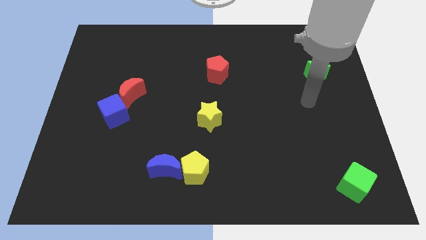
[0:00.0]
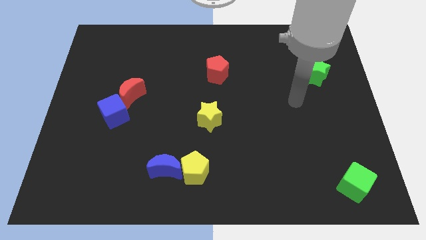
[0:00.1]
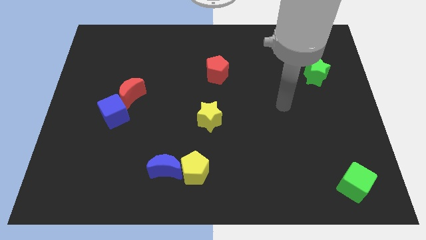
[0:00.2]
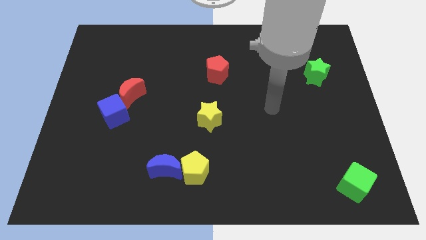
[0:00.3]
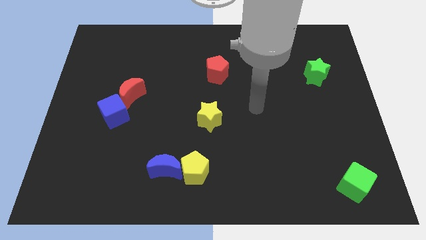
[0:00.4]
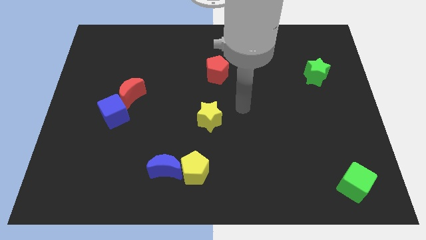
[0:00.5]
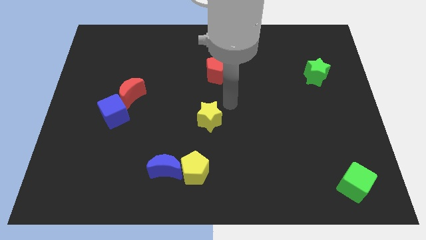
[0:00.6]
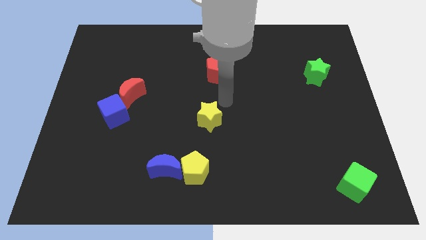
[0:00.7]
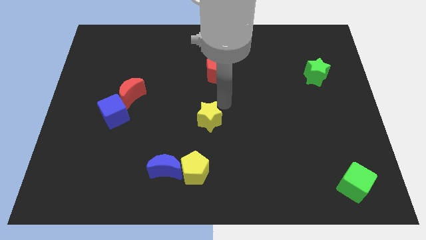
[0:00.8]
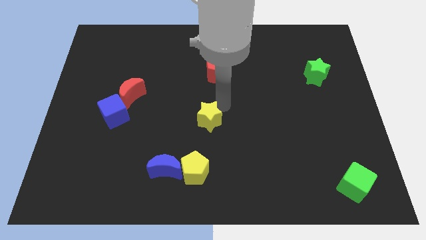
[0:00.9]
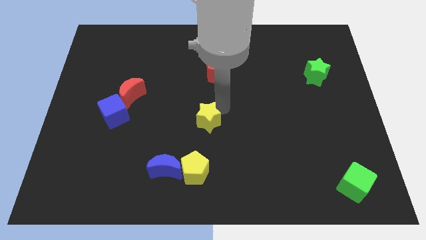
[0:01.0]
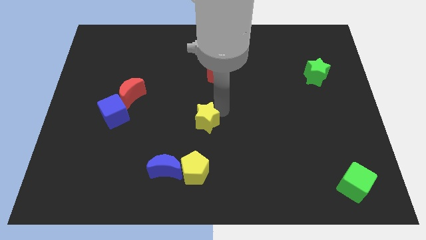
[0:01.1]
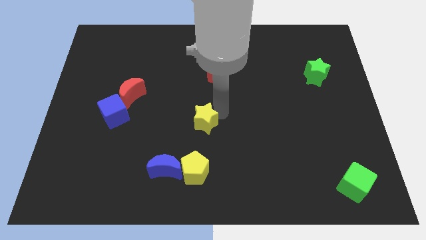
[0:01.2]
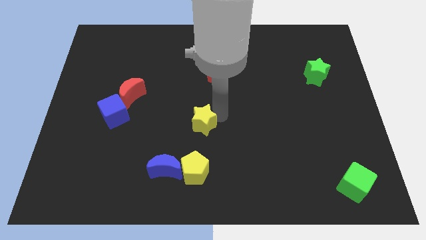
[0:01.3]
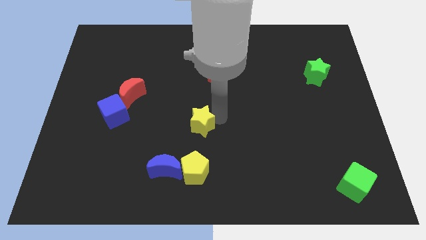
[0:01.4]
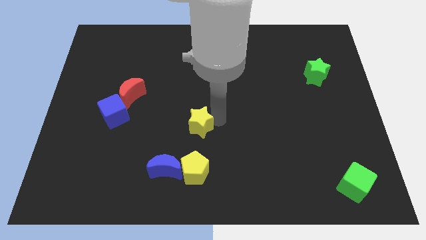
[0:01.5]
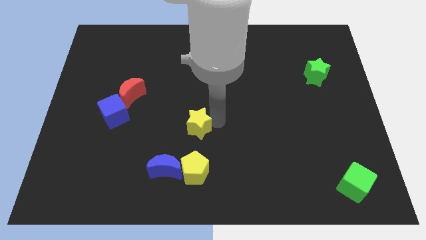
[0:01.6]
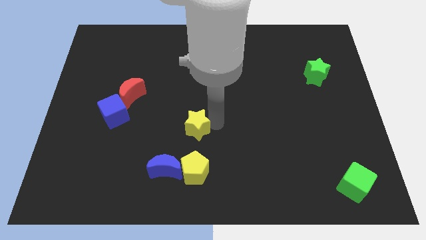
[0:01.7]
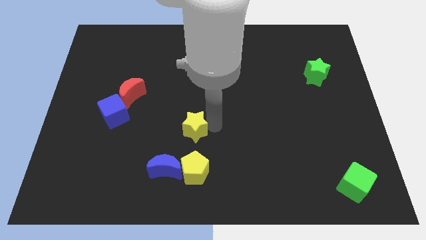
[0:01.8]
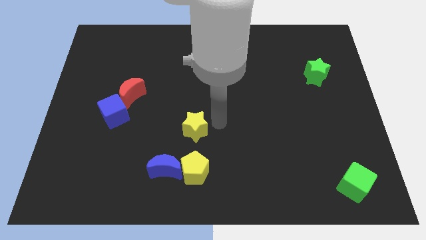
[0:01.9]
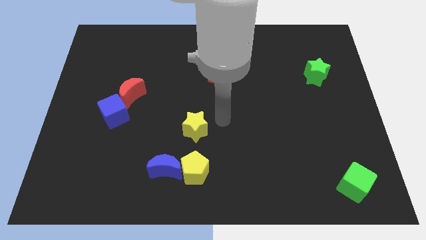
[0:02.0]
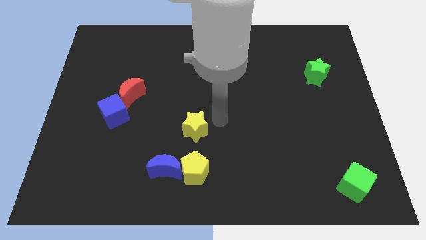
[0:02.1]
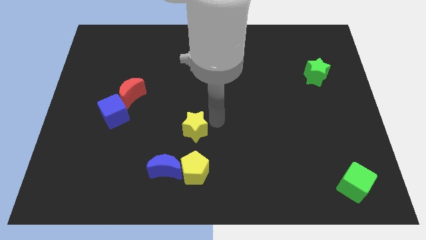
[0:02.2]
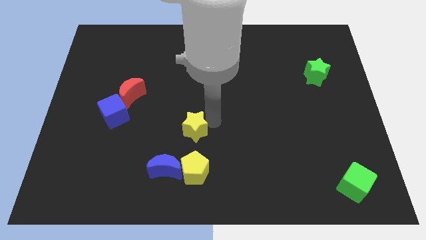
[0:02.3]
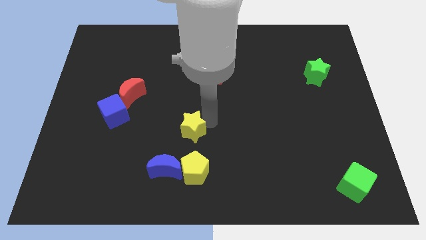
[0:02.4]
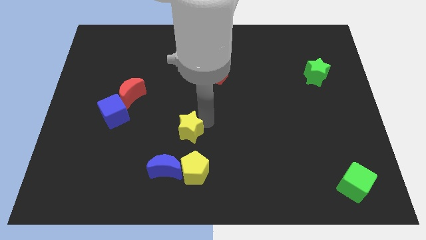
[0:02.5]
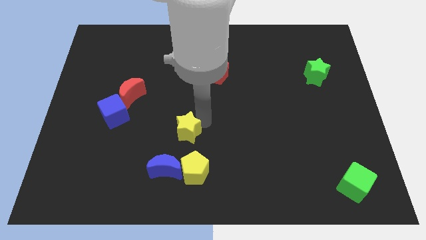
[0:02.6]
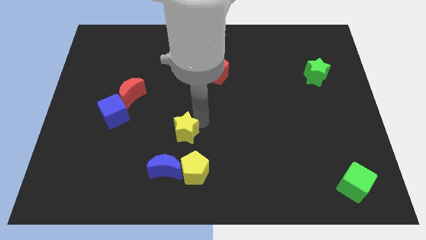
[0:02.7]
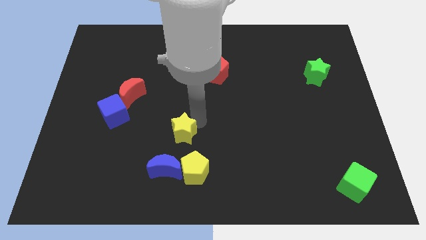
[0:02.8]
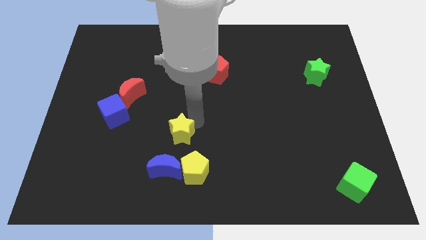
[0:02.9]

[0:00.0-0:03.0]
move the yellow star downwards and to the left diagonally a little

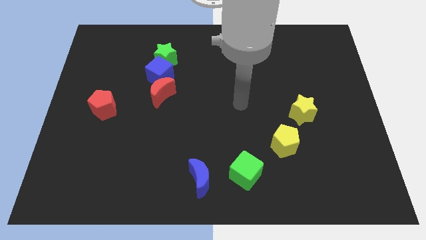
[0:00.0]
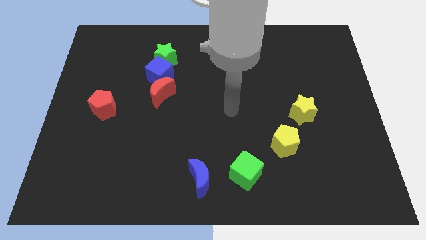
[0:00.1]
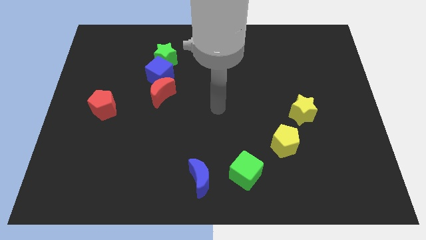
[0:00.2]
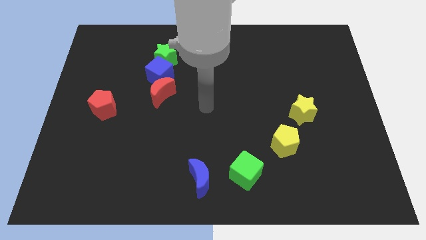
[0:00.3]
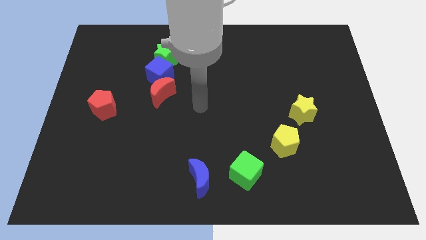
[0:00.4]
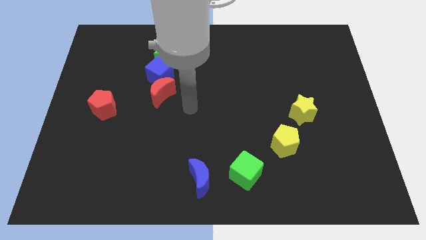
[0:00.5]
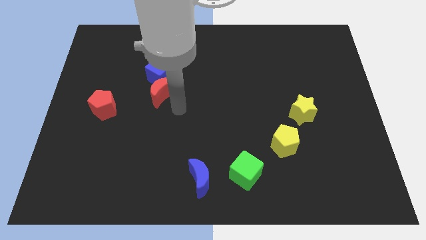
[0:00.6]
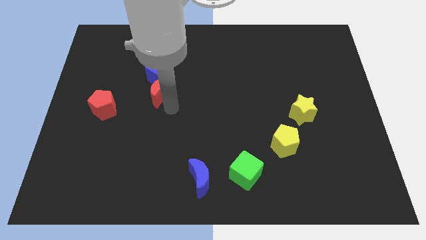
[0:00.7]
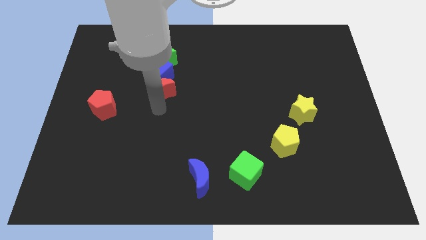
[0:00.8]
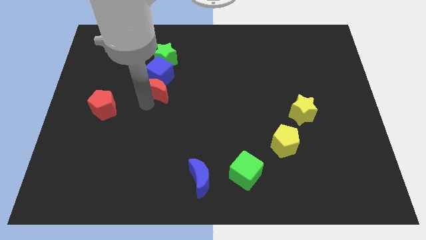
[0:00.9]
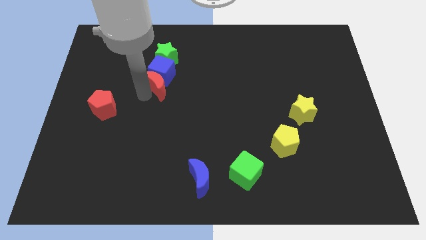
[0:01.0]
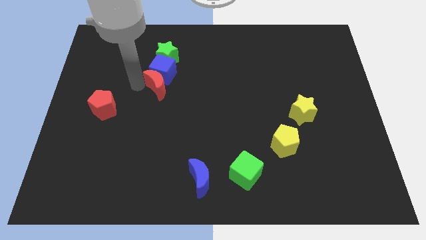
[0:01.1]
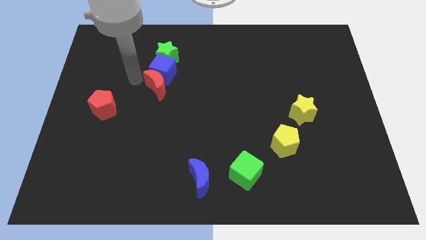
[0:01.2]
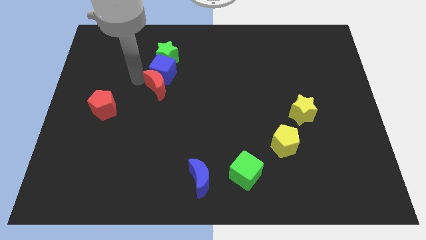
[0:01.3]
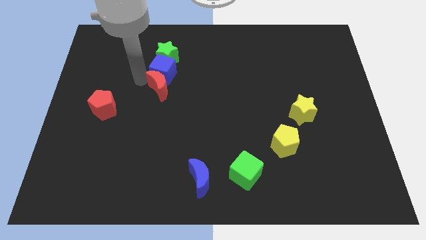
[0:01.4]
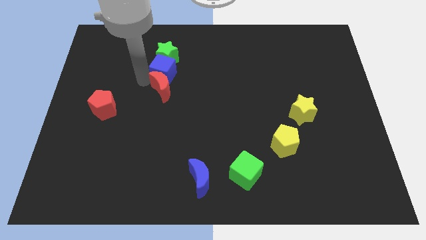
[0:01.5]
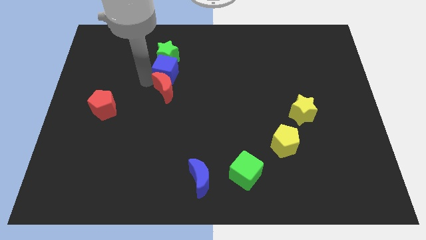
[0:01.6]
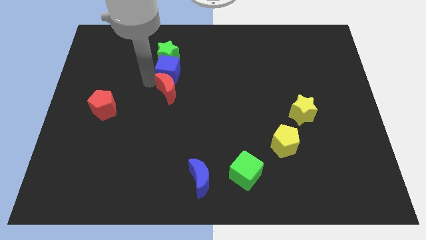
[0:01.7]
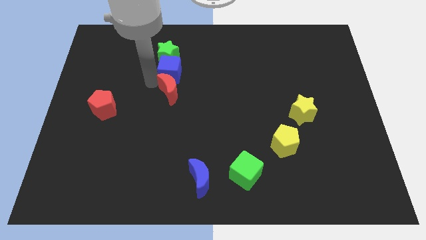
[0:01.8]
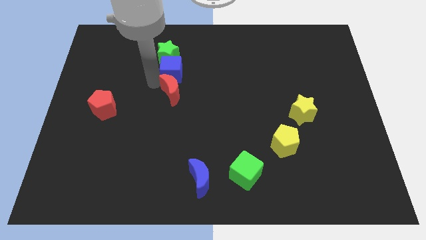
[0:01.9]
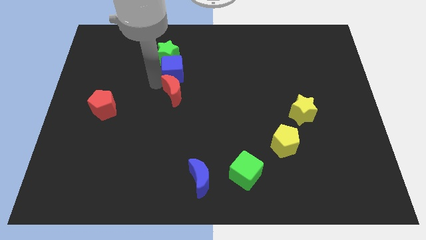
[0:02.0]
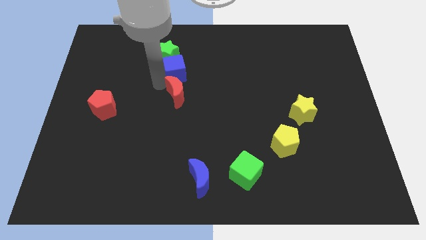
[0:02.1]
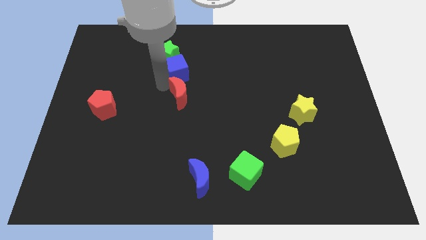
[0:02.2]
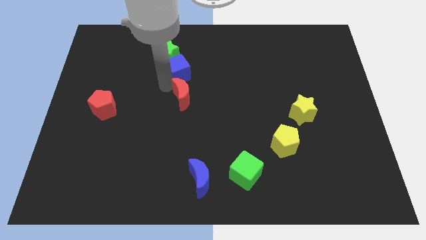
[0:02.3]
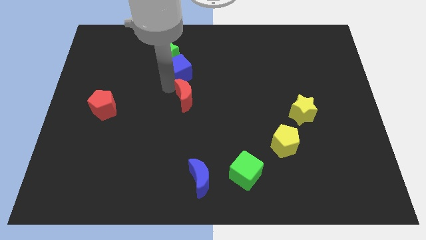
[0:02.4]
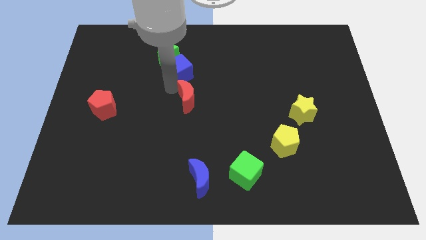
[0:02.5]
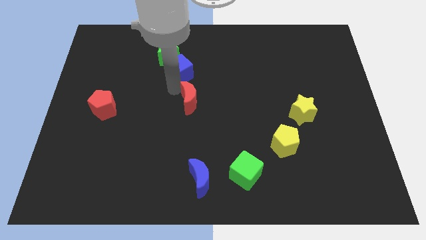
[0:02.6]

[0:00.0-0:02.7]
slightly slide the red moon right

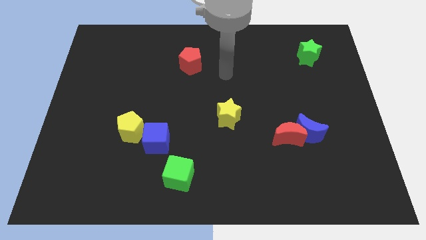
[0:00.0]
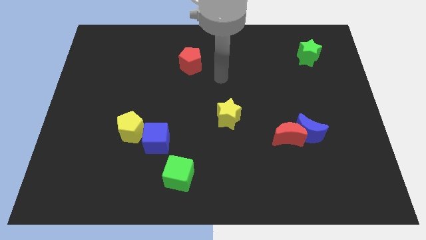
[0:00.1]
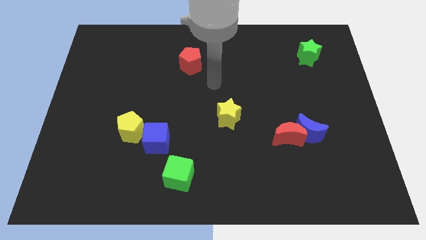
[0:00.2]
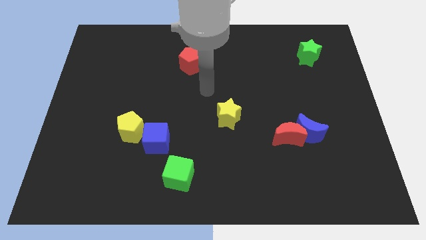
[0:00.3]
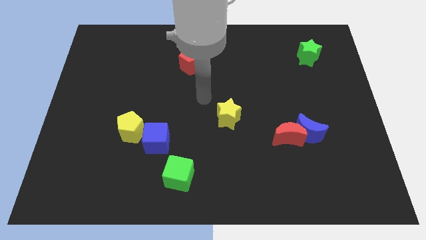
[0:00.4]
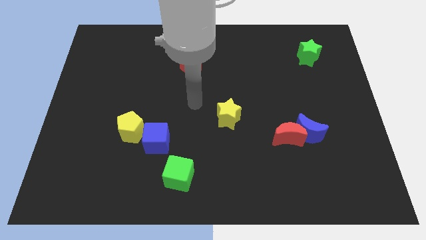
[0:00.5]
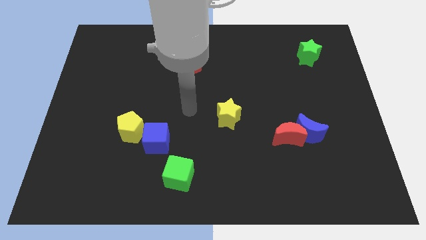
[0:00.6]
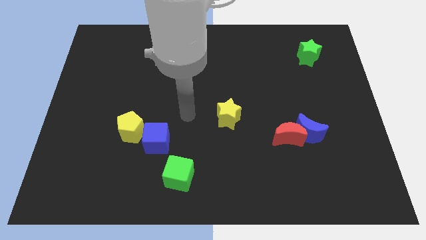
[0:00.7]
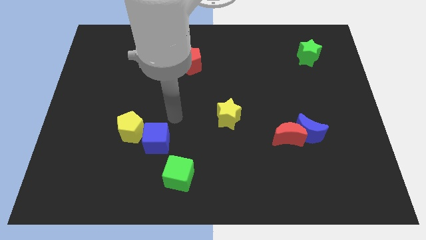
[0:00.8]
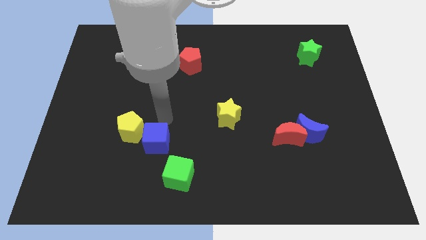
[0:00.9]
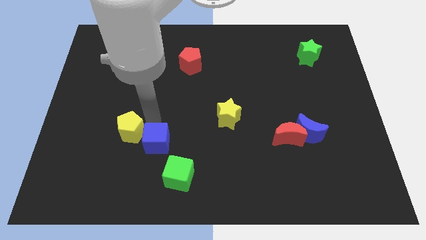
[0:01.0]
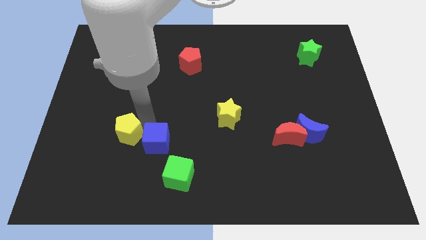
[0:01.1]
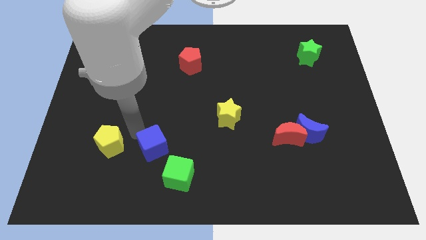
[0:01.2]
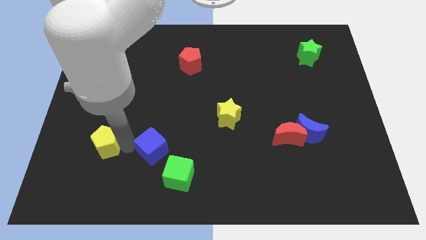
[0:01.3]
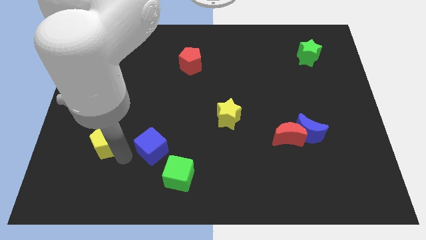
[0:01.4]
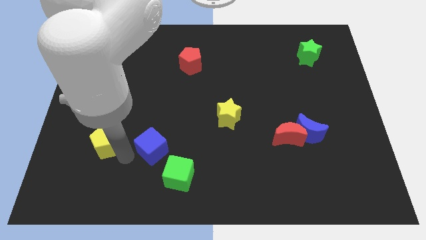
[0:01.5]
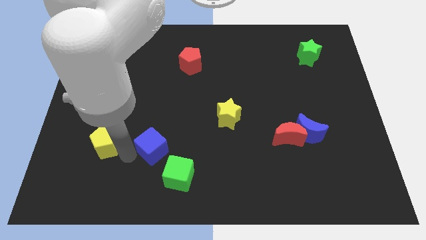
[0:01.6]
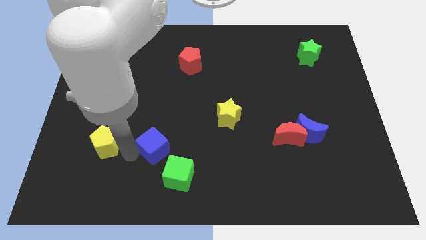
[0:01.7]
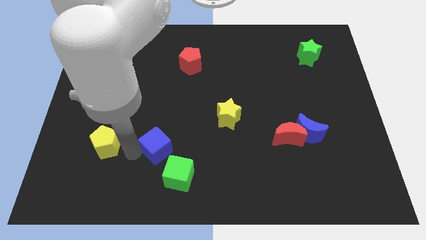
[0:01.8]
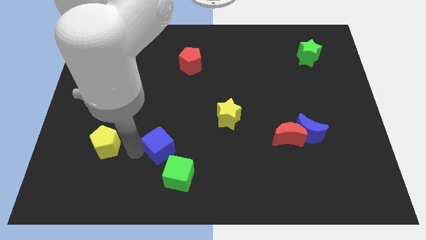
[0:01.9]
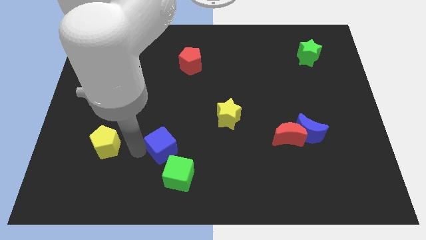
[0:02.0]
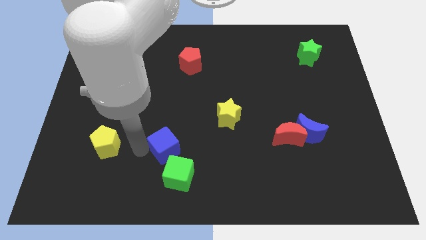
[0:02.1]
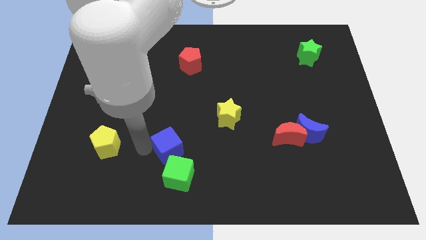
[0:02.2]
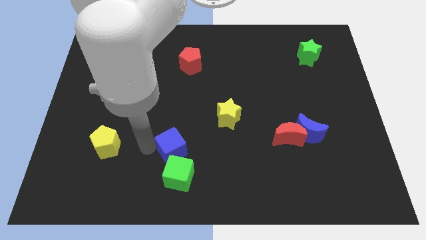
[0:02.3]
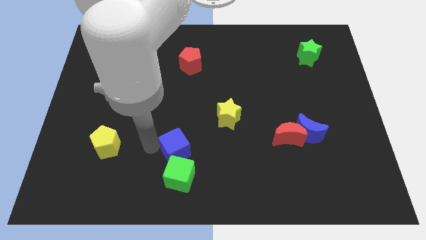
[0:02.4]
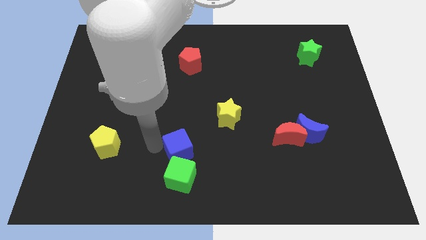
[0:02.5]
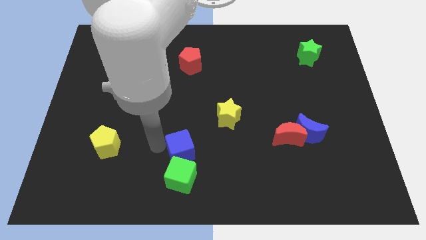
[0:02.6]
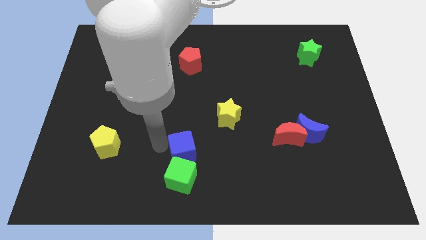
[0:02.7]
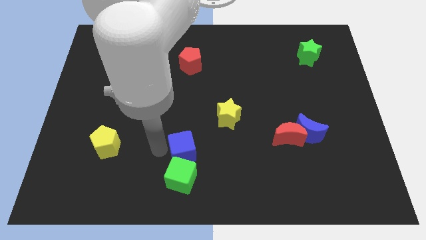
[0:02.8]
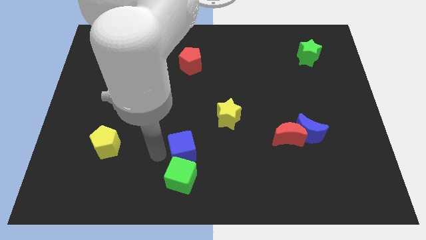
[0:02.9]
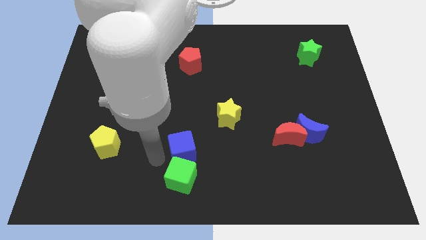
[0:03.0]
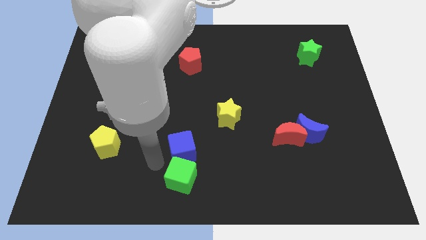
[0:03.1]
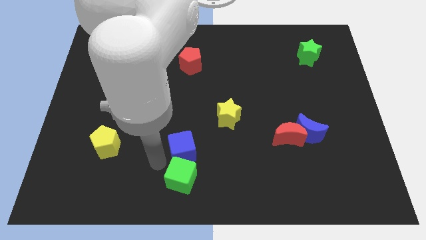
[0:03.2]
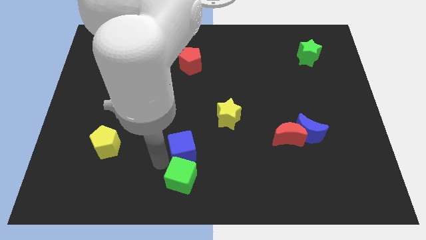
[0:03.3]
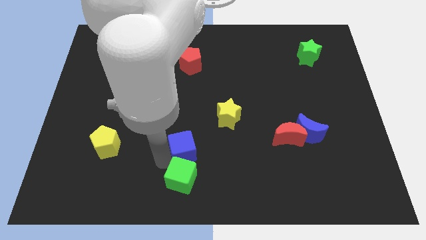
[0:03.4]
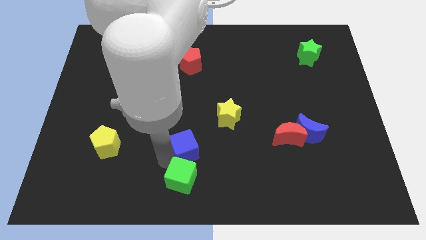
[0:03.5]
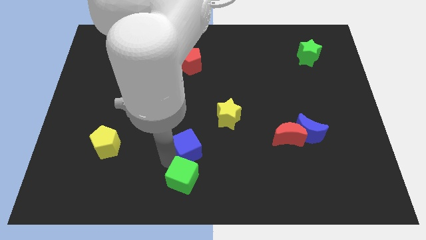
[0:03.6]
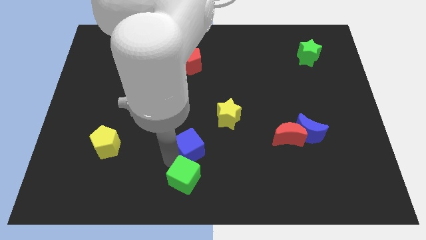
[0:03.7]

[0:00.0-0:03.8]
move the blue cube a bit to the right
